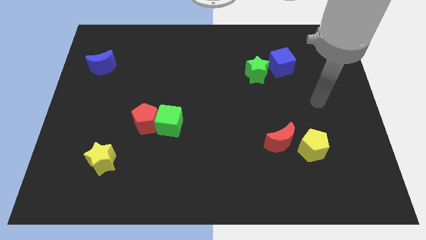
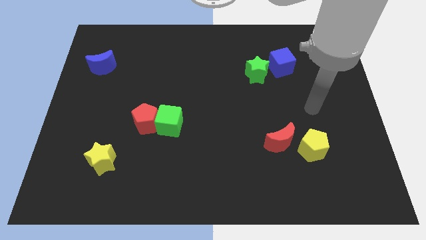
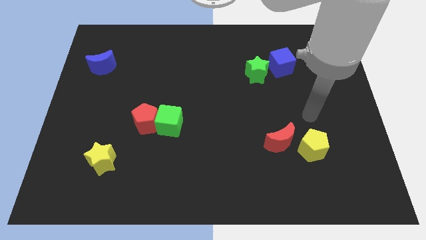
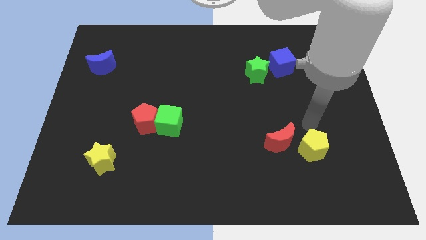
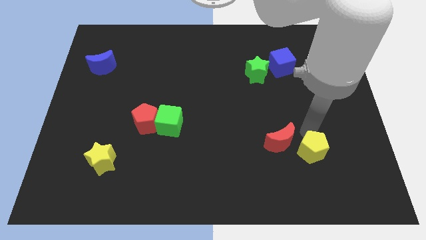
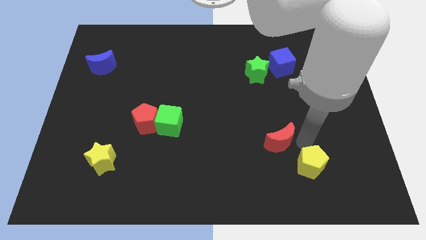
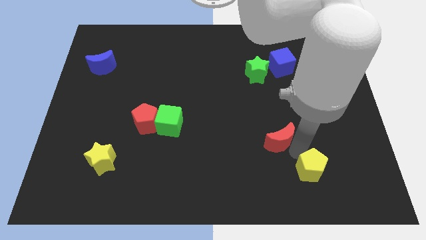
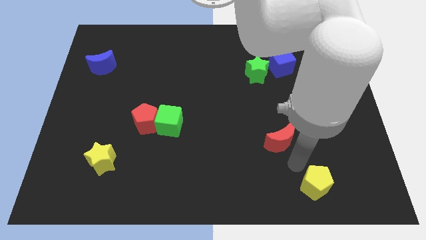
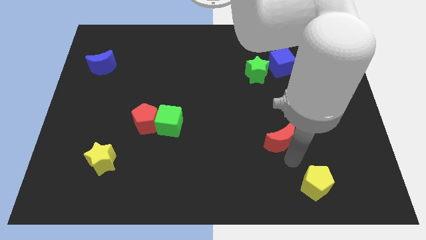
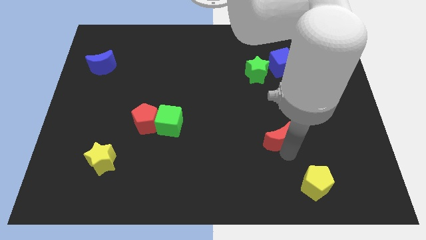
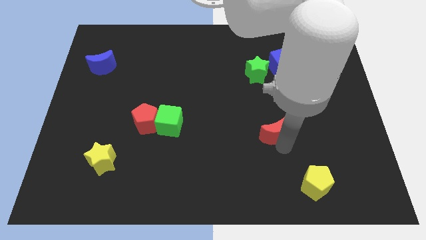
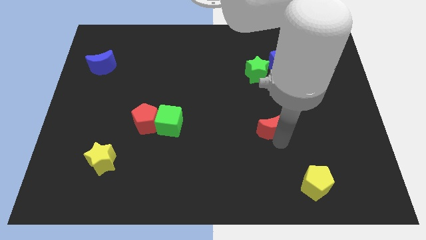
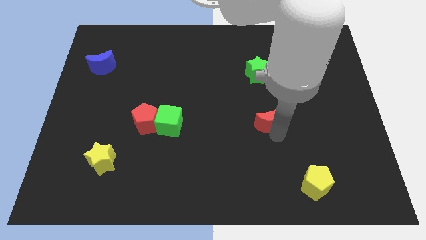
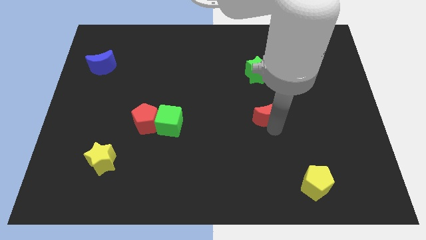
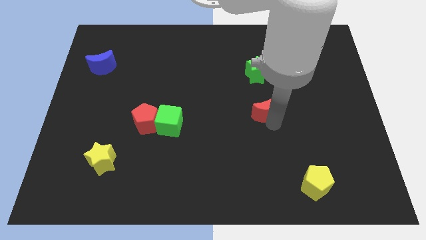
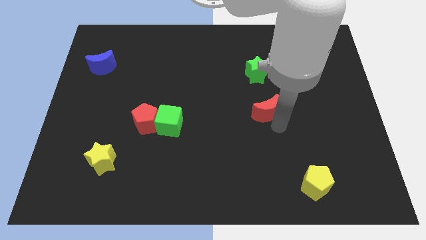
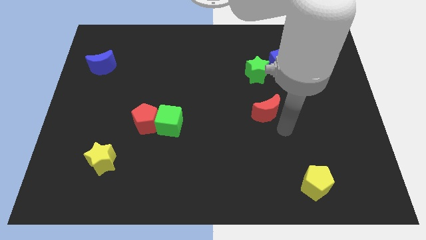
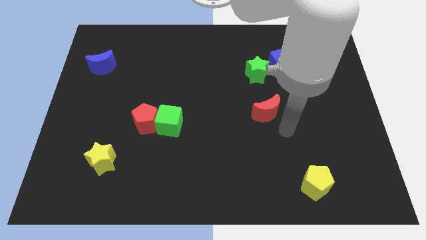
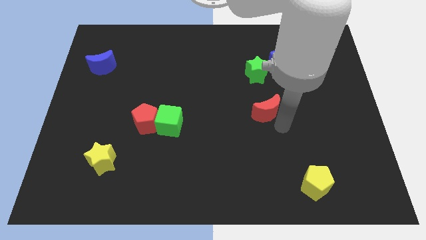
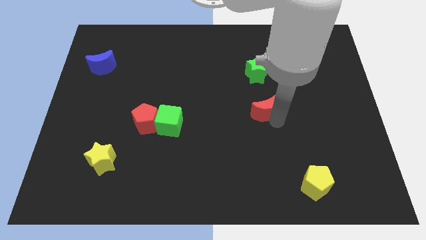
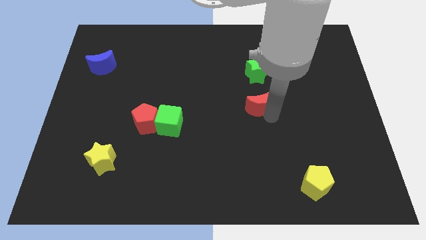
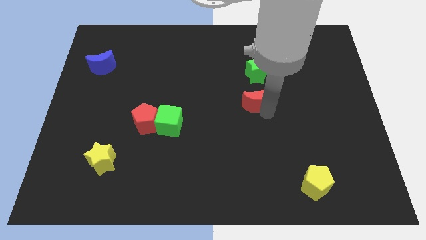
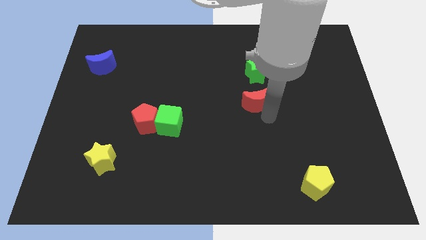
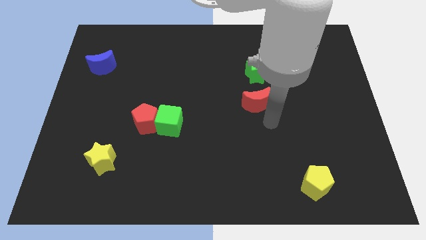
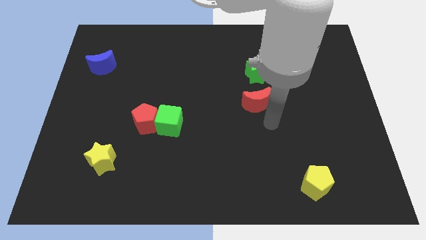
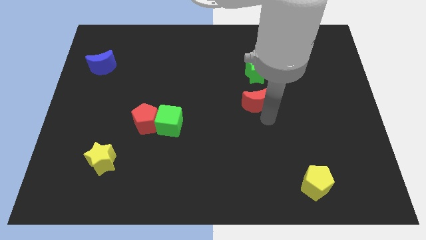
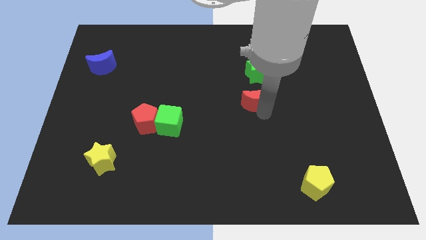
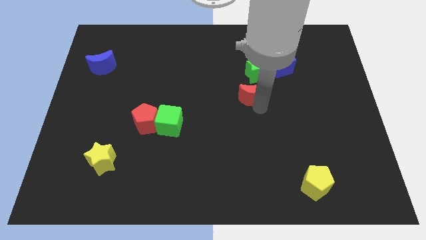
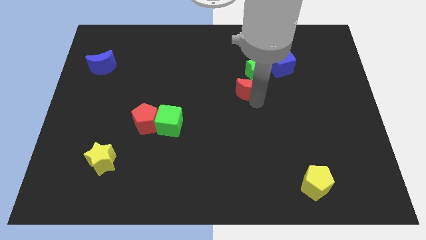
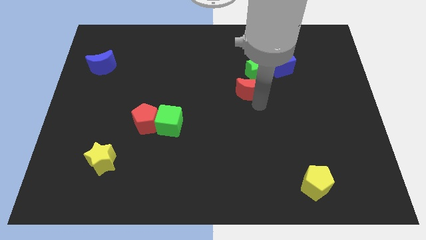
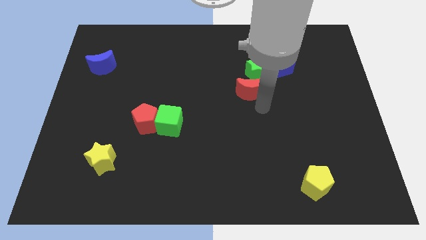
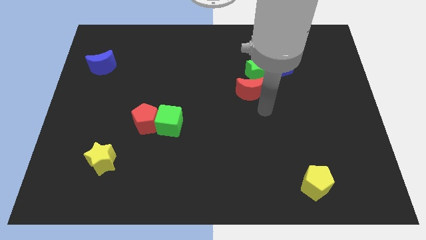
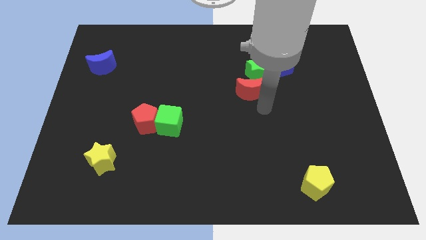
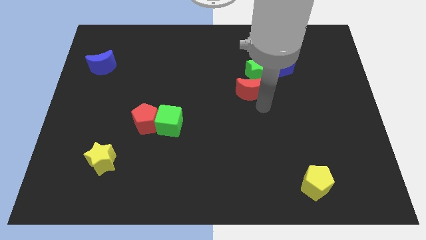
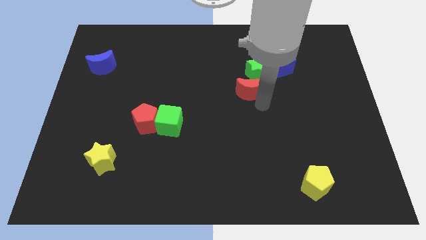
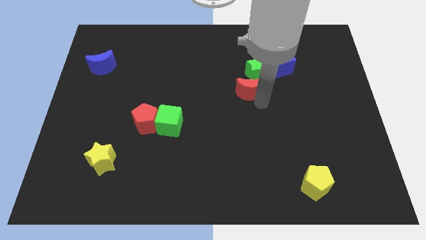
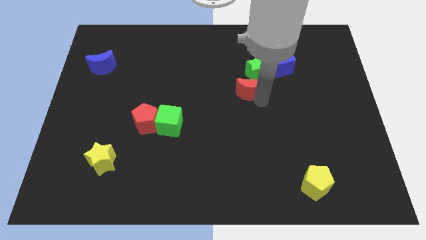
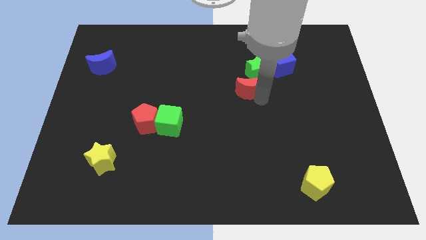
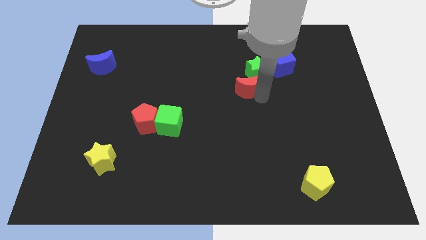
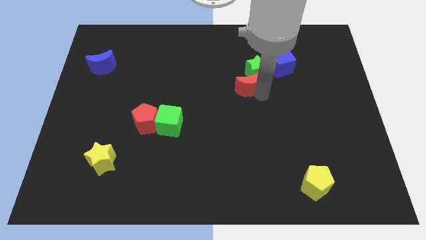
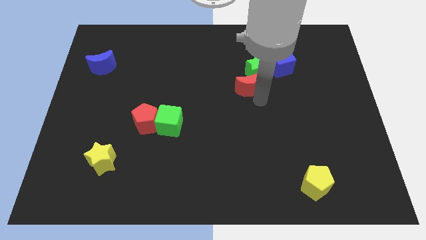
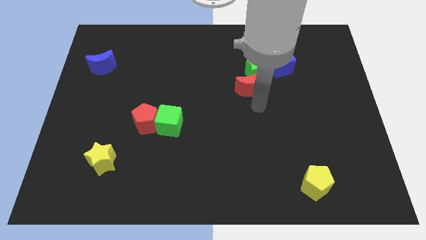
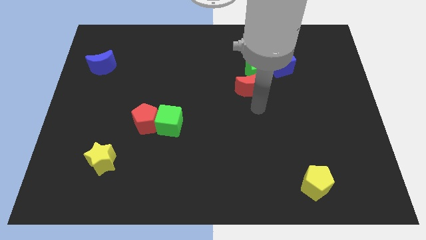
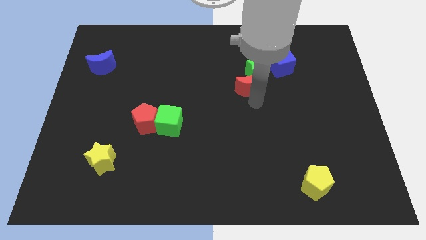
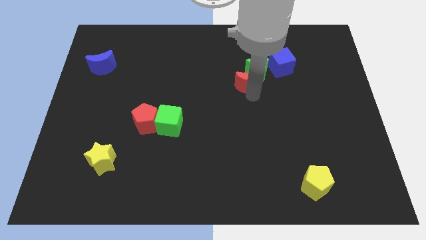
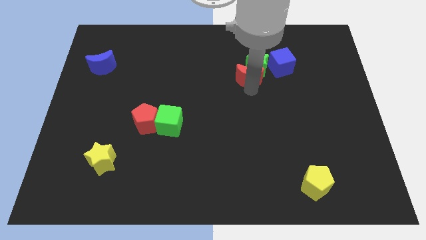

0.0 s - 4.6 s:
put the red moon to the left side of the blue cube

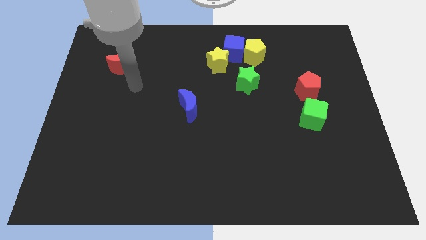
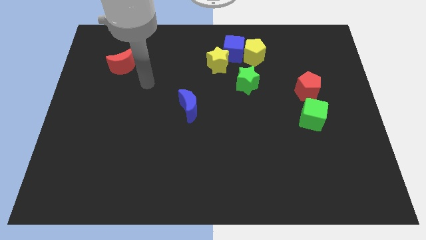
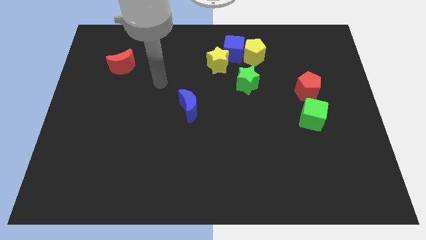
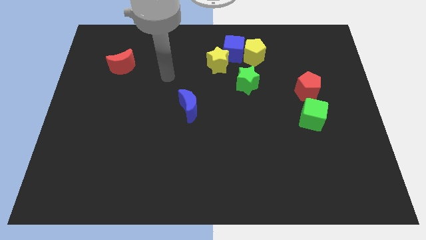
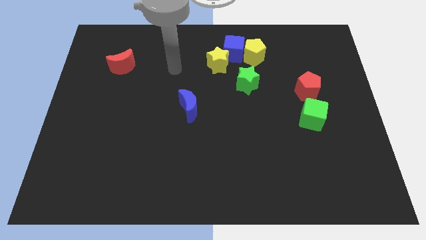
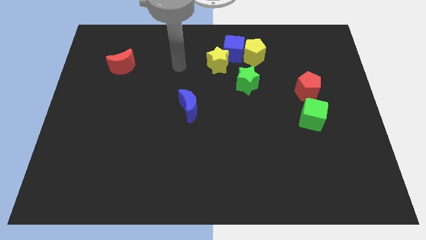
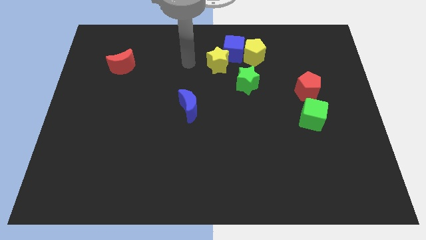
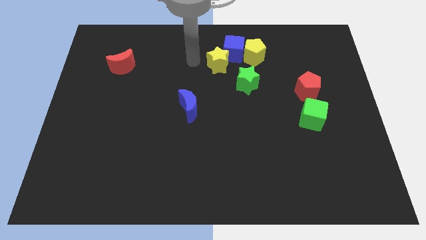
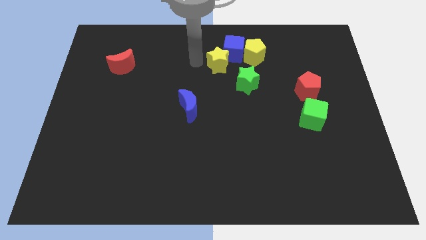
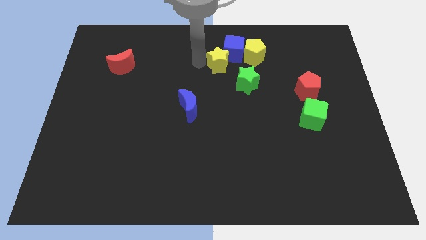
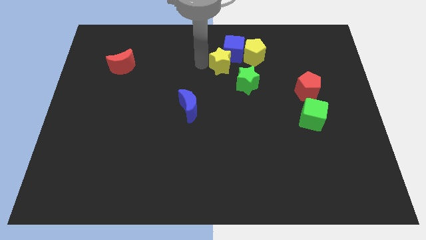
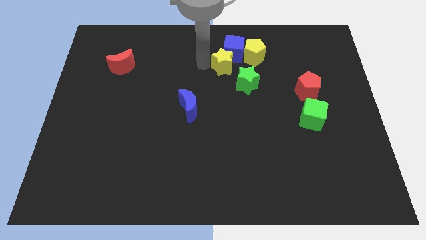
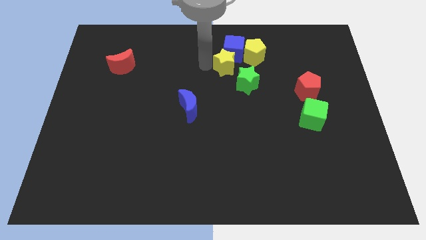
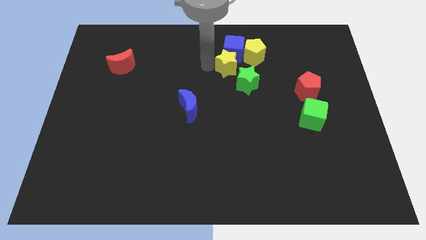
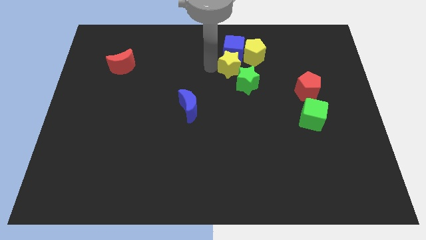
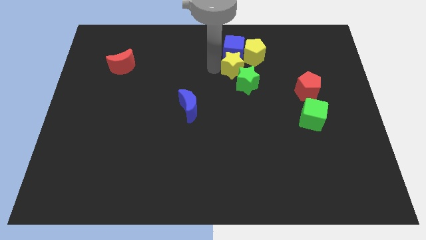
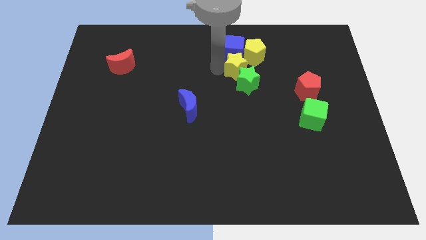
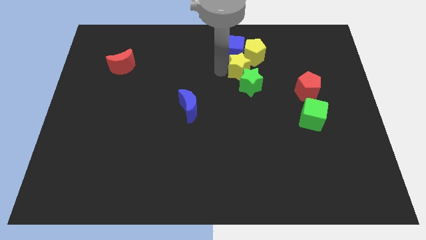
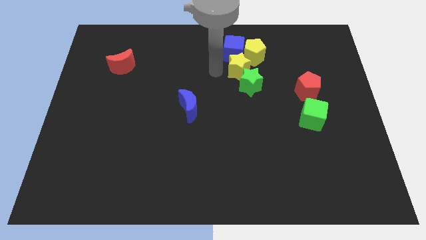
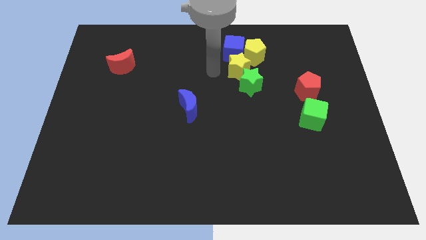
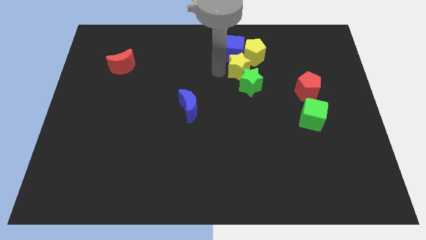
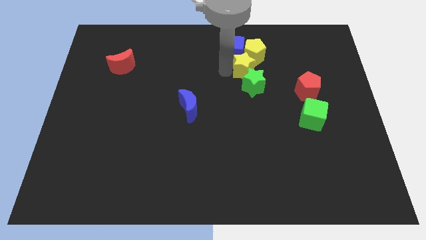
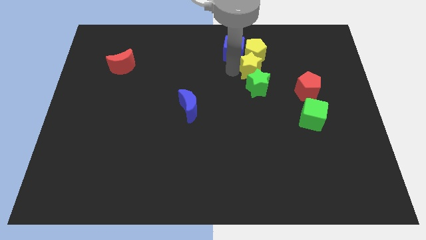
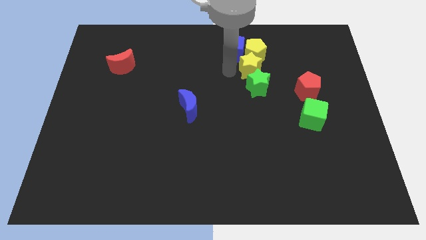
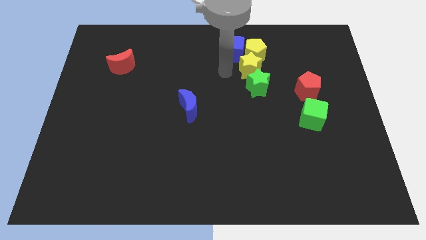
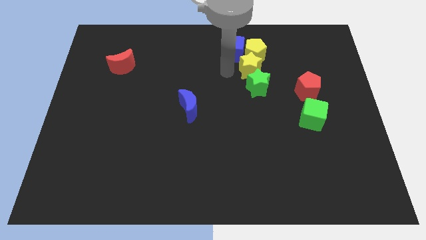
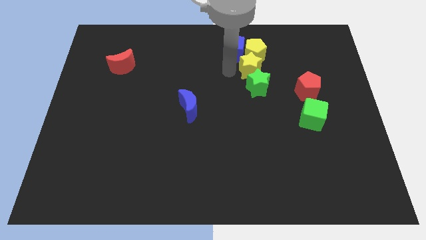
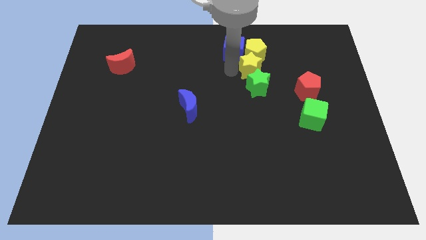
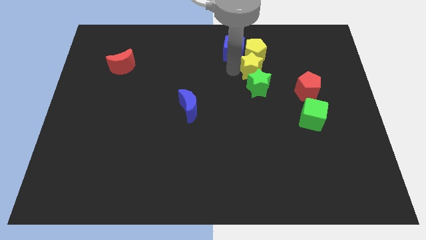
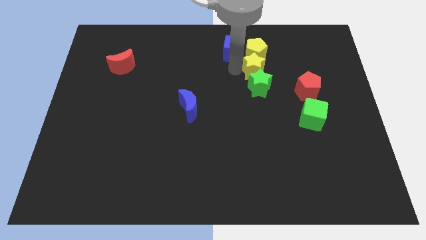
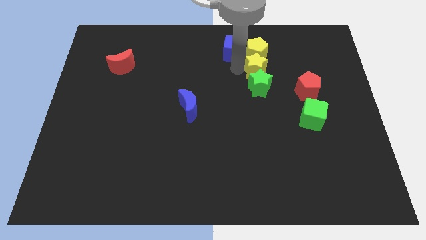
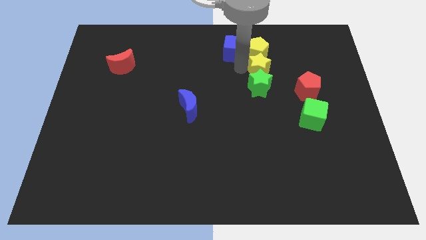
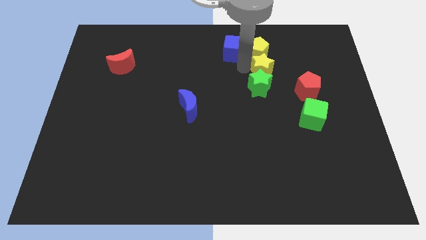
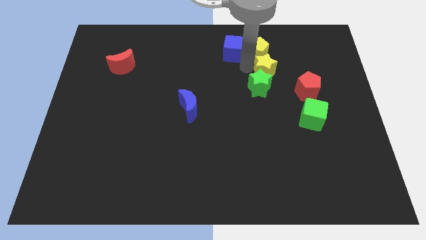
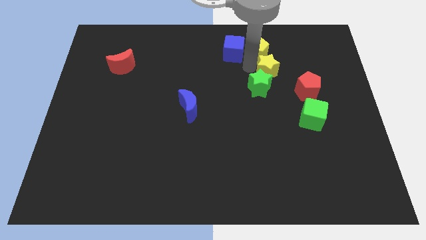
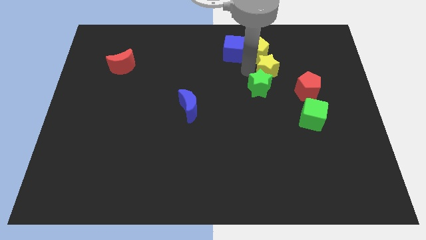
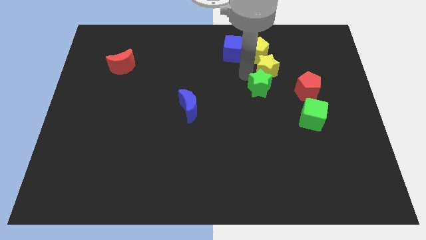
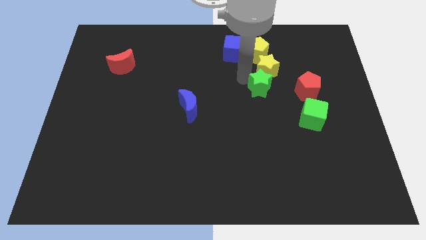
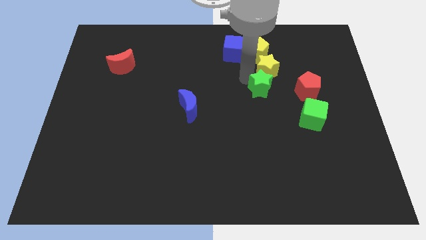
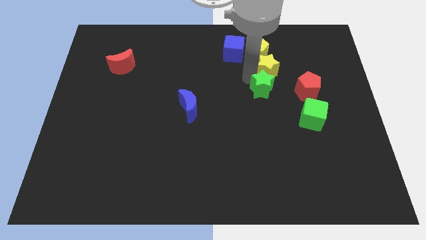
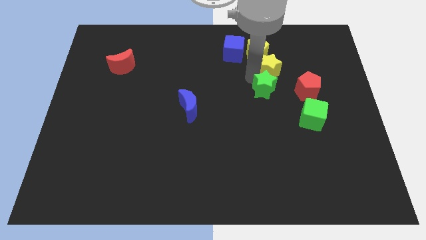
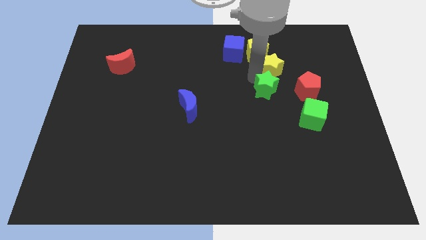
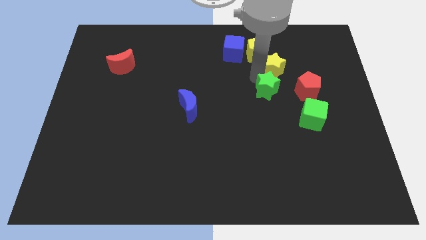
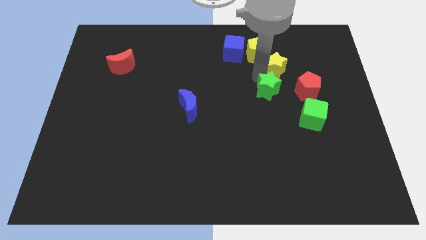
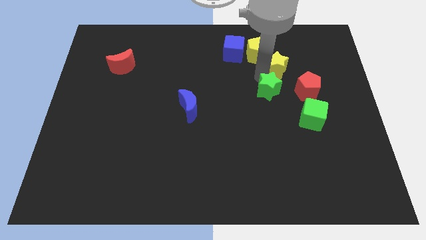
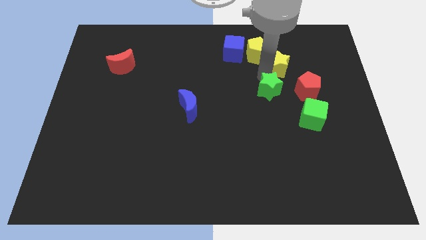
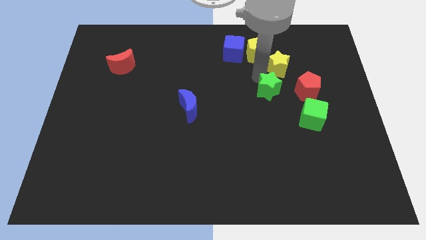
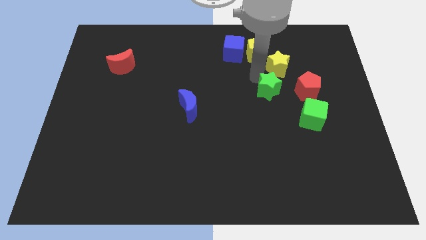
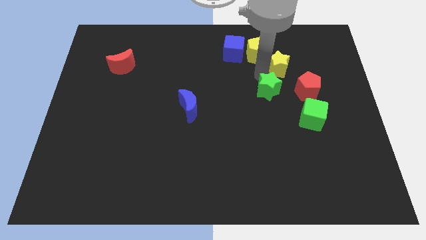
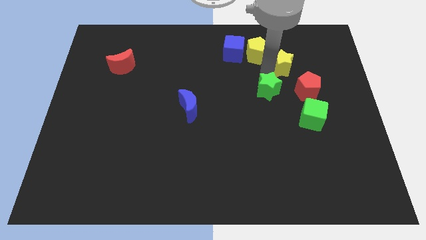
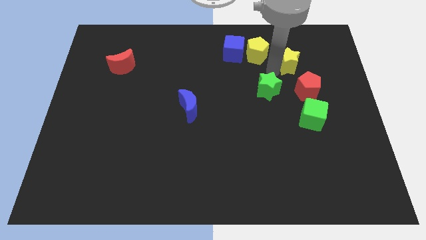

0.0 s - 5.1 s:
move the yellow star to the top of the red pentagon
